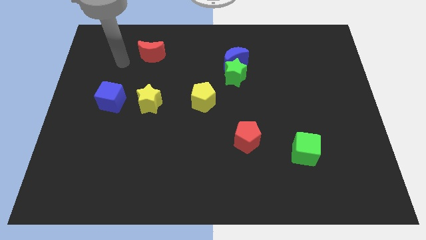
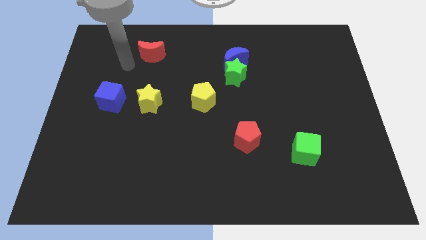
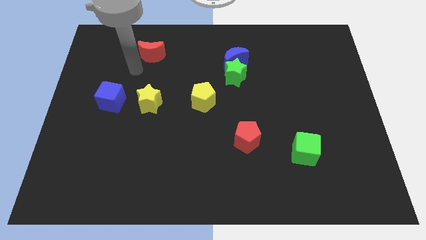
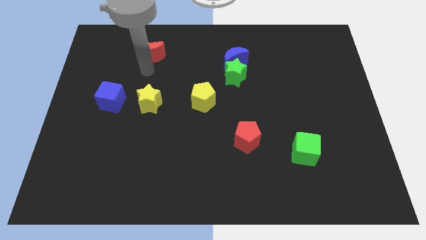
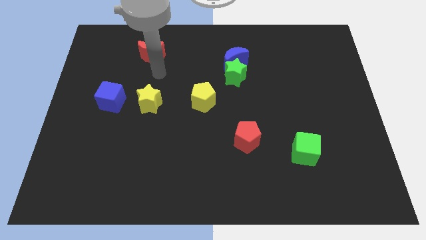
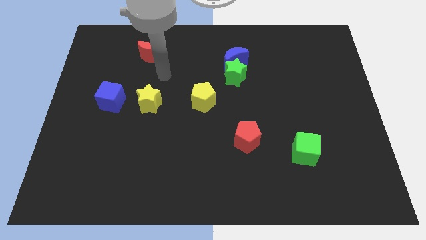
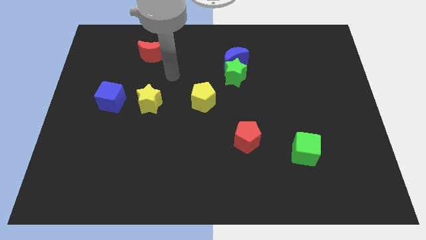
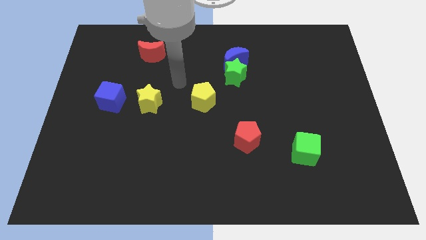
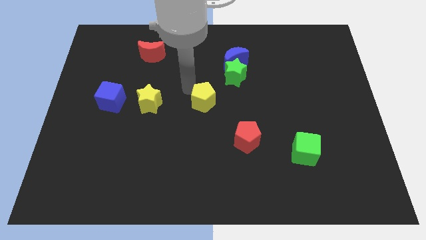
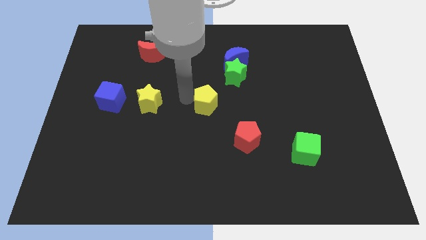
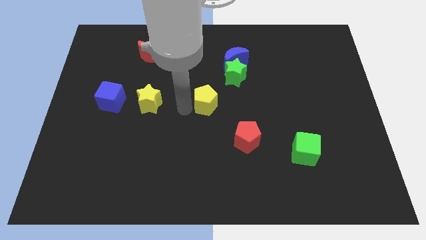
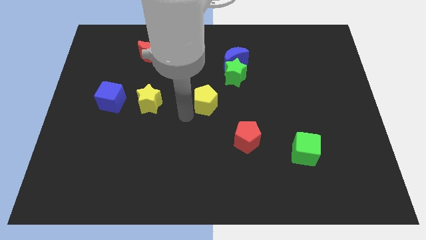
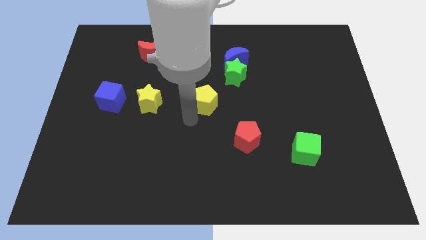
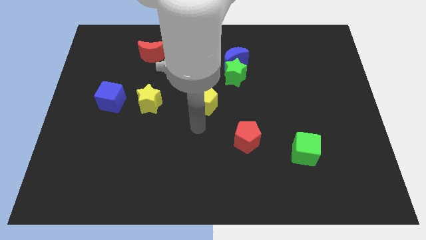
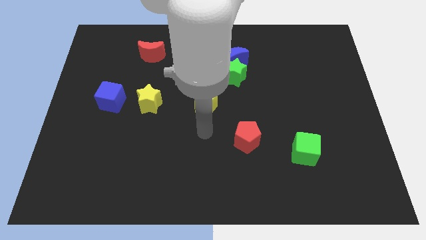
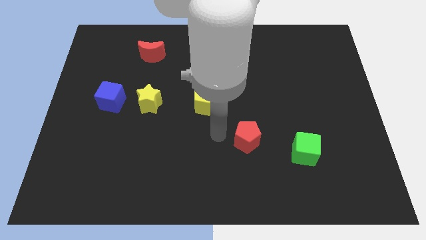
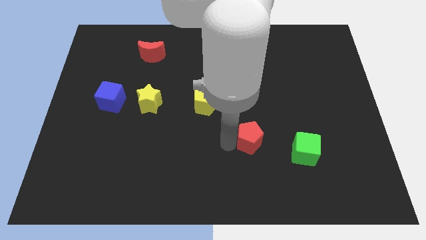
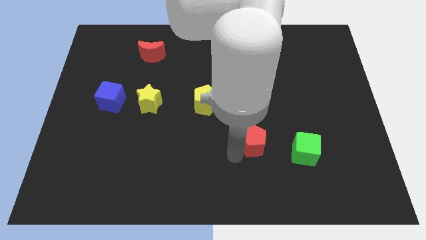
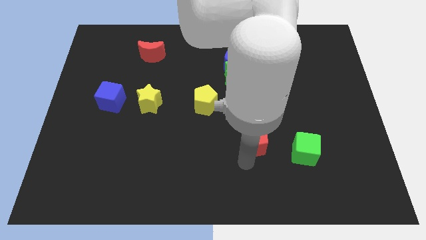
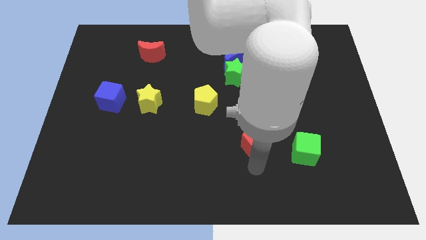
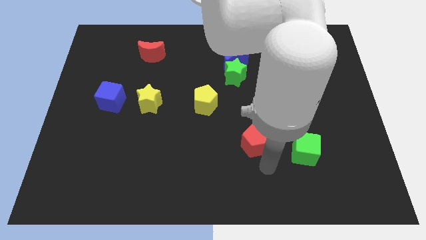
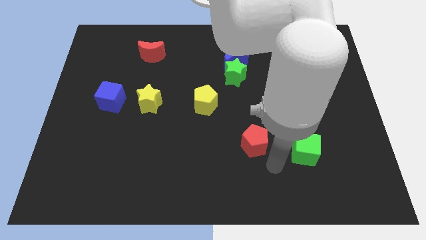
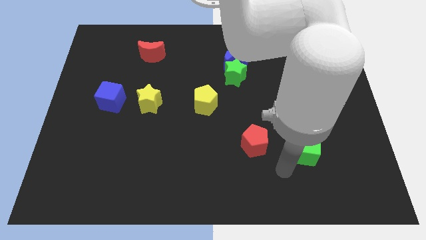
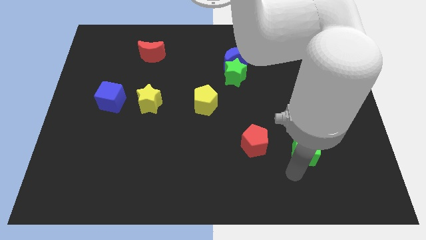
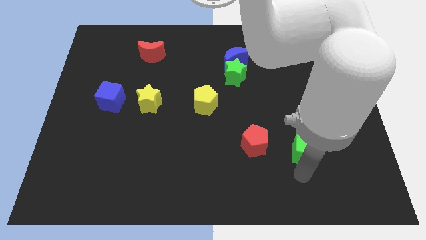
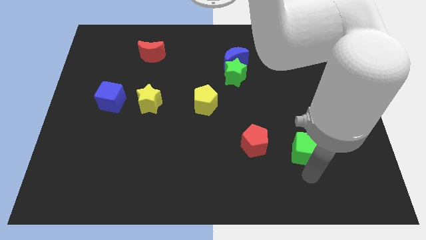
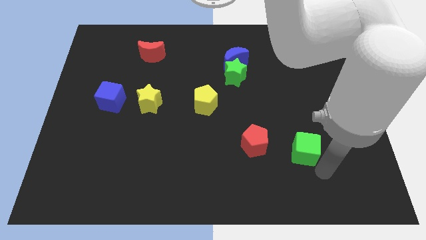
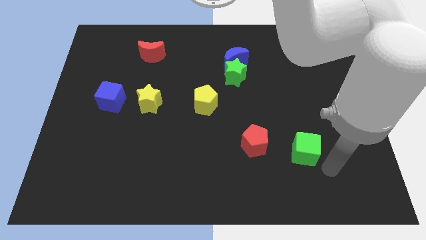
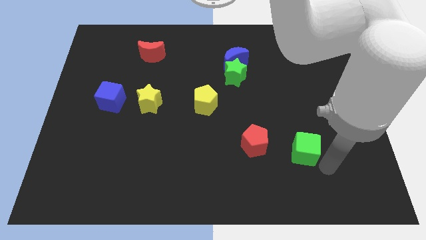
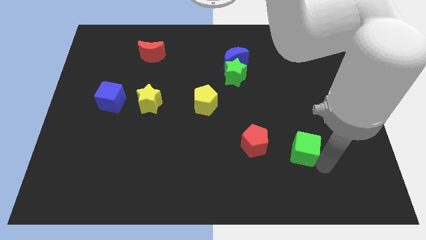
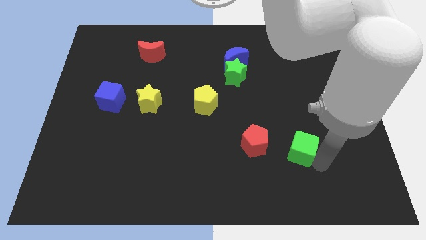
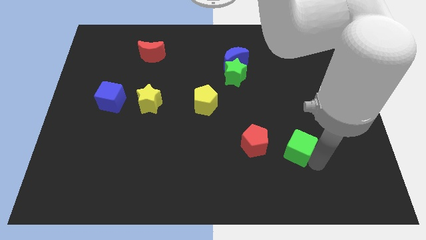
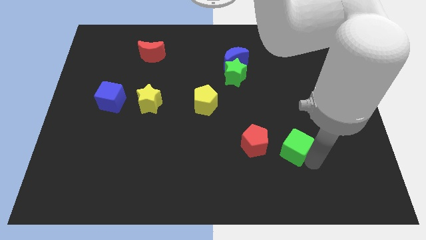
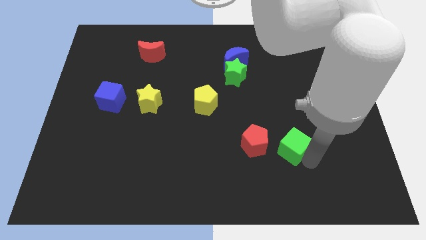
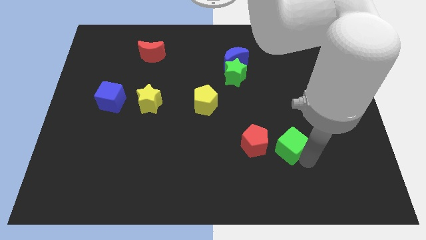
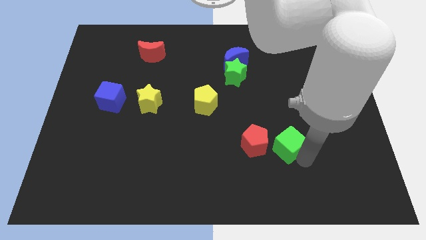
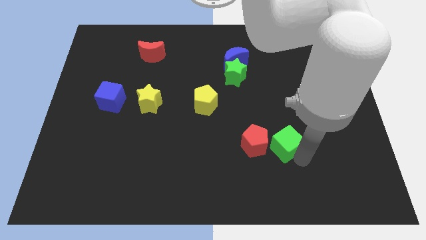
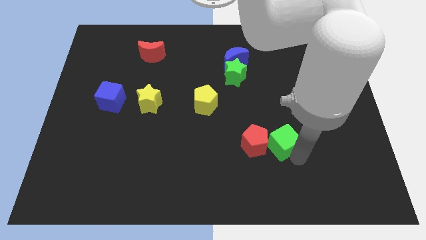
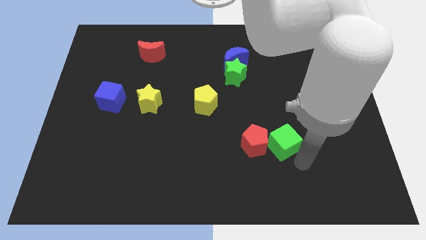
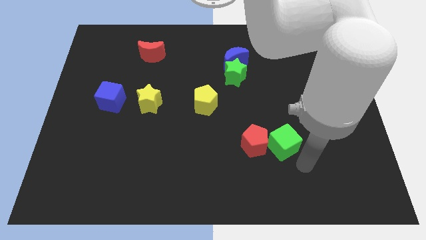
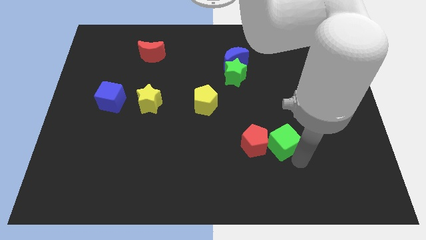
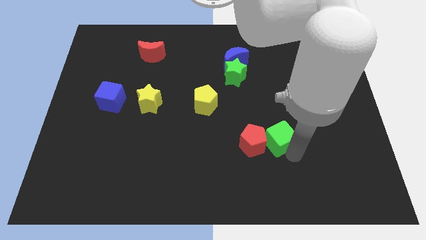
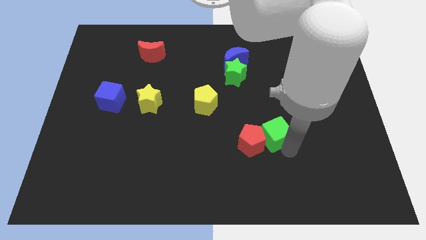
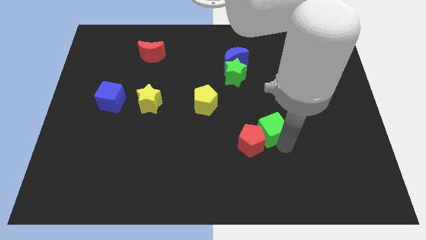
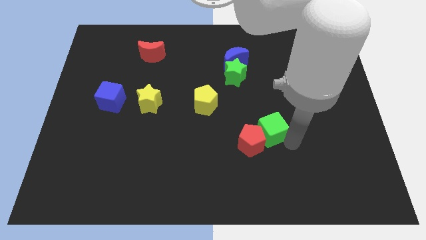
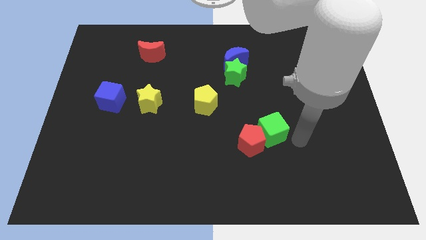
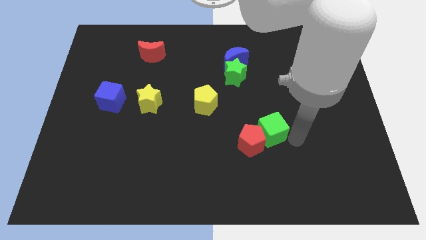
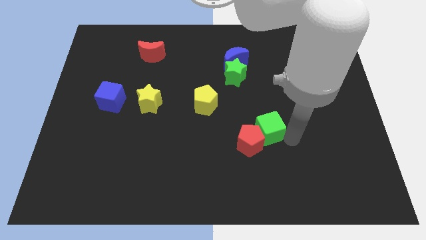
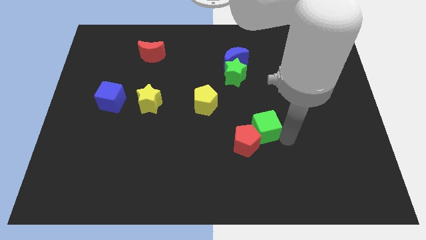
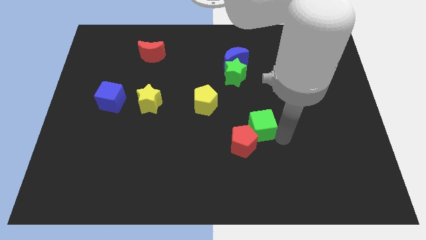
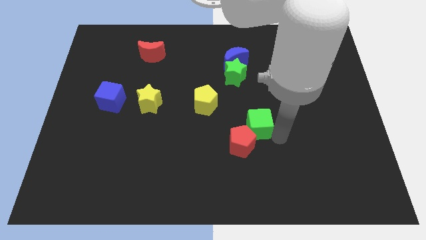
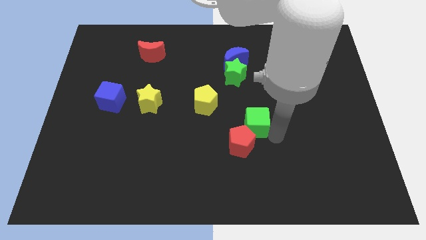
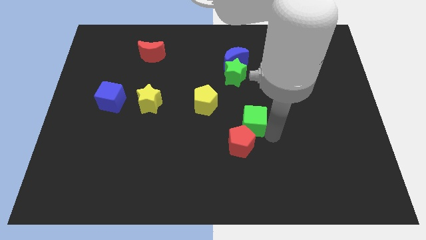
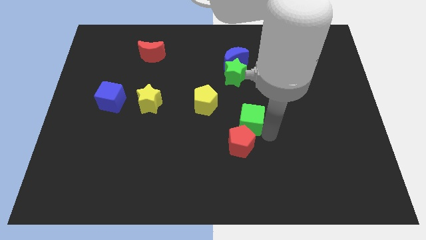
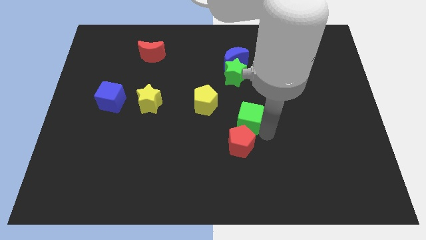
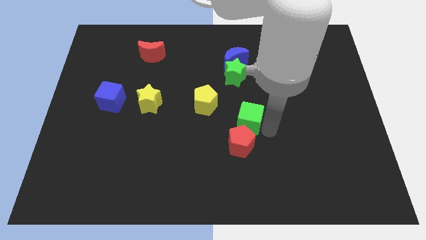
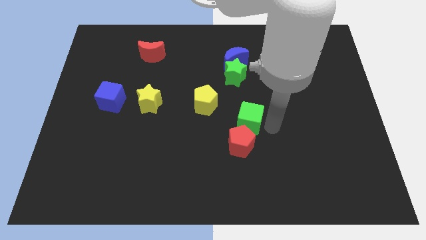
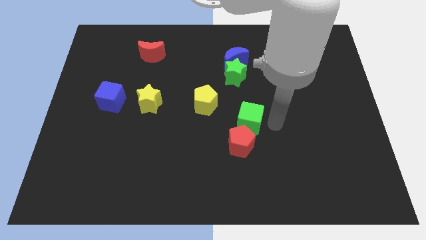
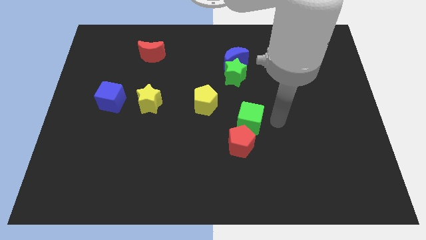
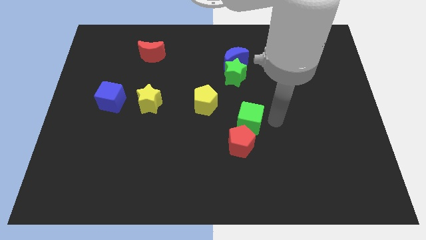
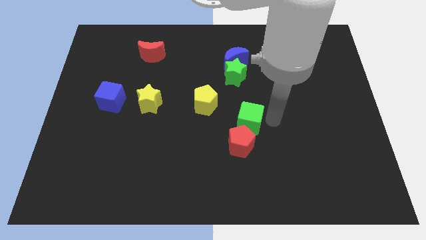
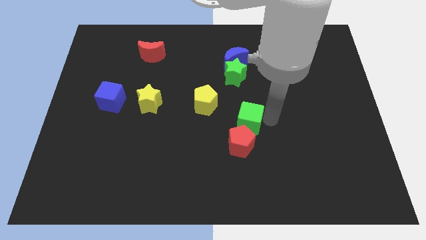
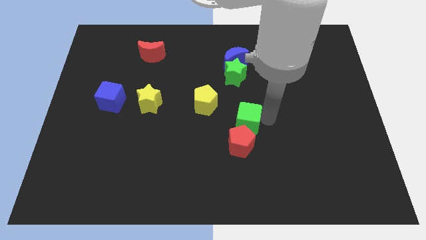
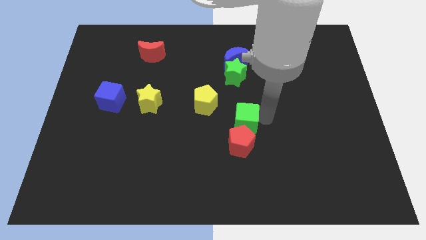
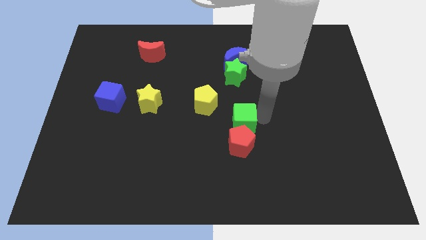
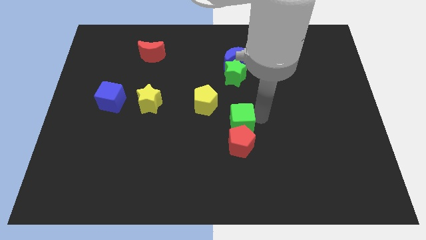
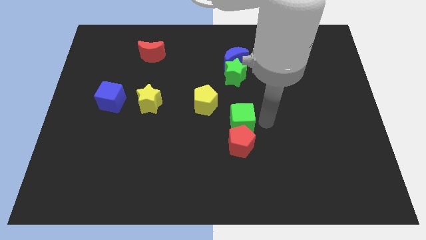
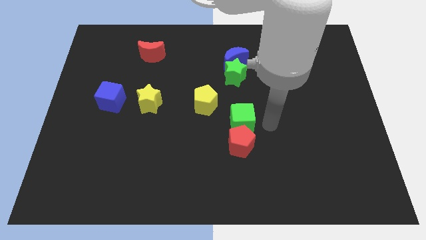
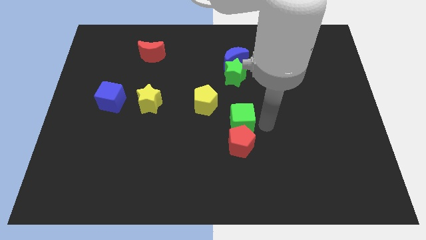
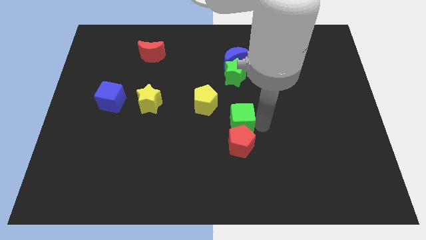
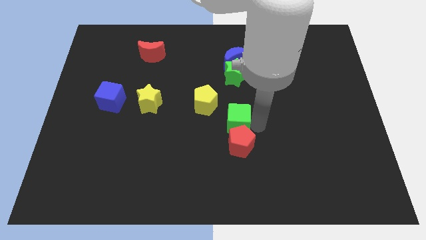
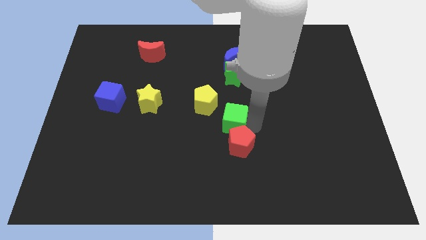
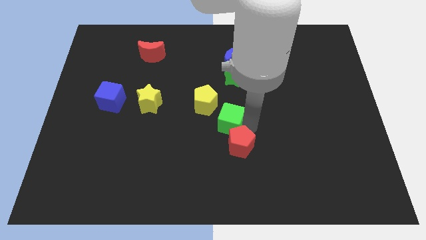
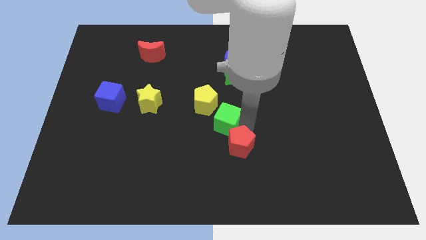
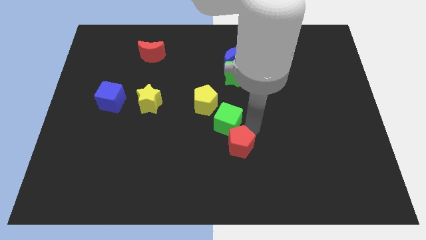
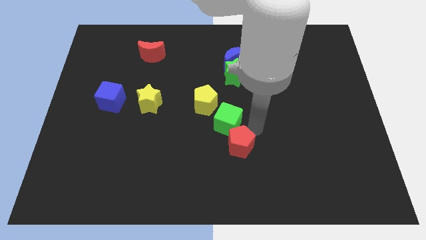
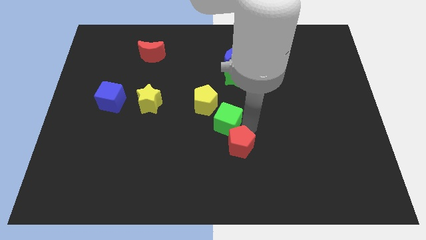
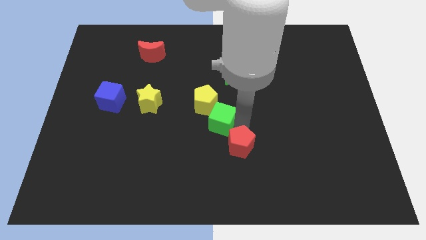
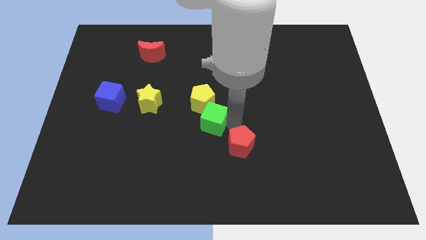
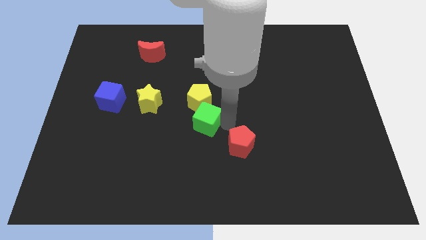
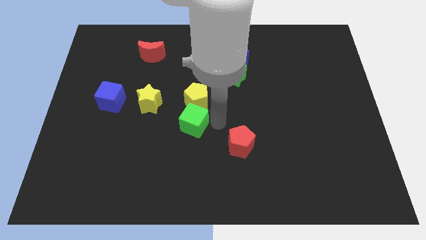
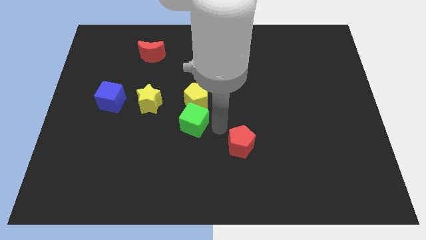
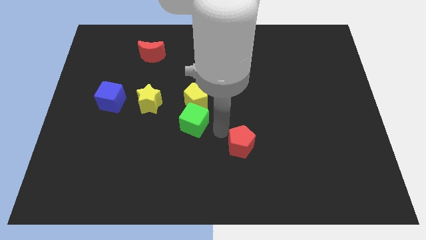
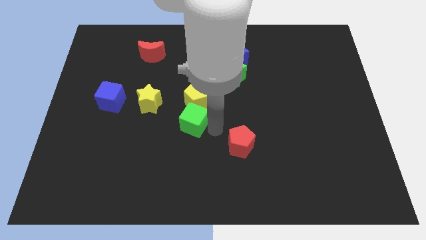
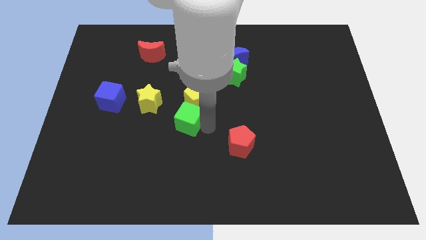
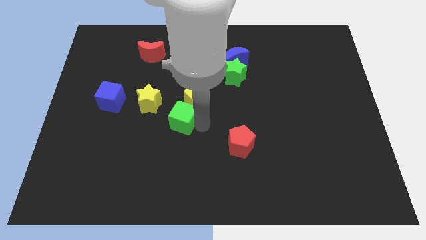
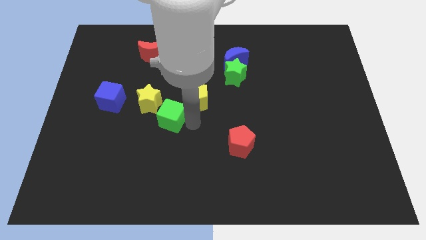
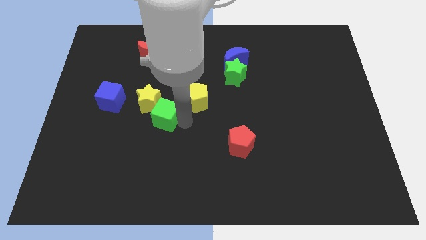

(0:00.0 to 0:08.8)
move the green cube towards the yellow star
